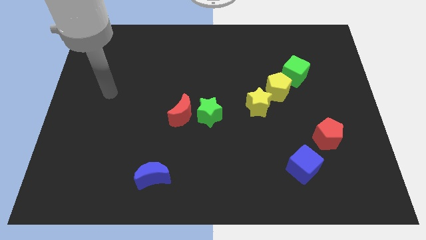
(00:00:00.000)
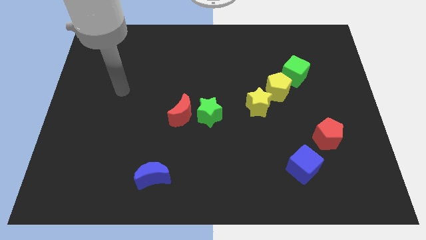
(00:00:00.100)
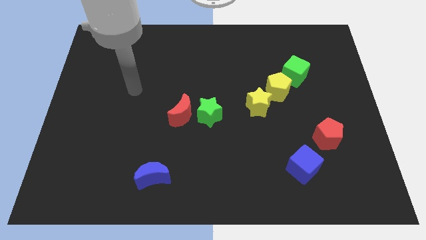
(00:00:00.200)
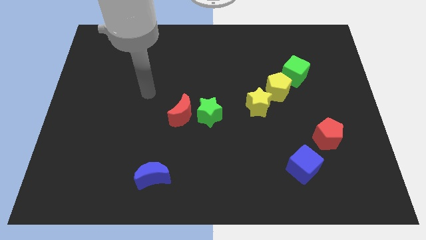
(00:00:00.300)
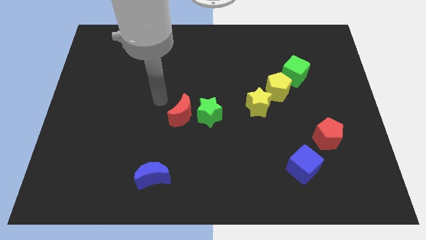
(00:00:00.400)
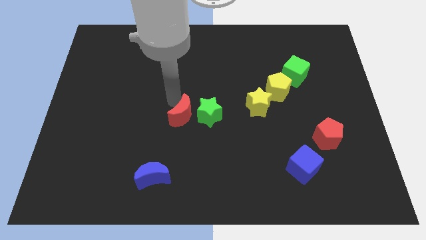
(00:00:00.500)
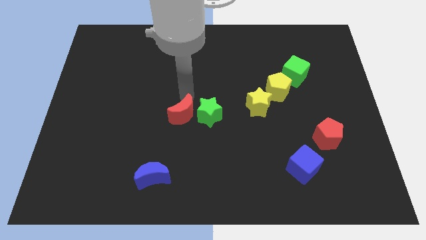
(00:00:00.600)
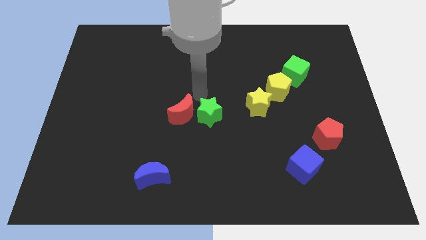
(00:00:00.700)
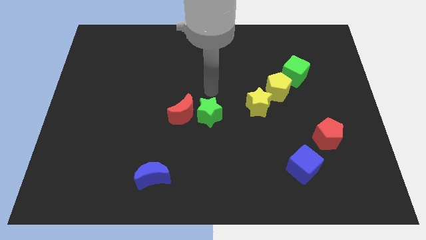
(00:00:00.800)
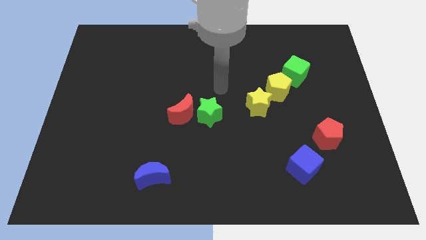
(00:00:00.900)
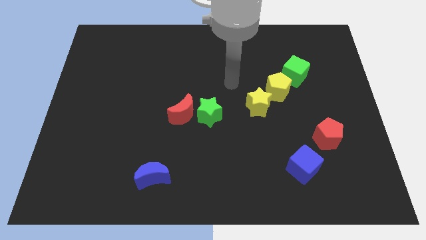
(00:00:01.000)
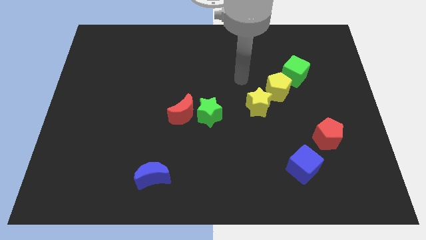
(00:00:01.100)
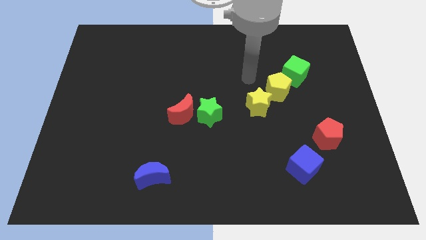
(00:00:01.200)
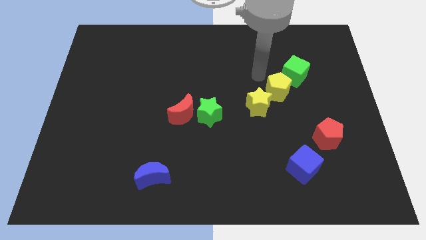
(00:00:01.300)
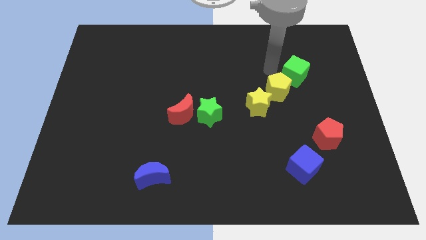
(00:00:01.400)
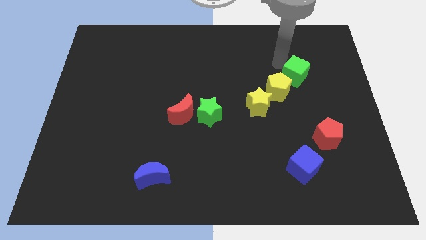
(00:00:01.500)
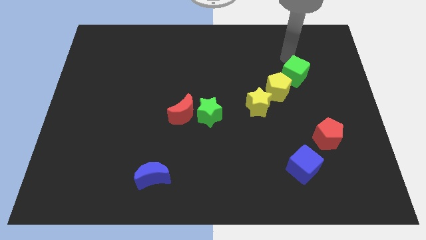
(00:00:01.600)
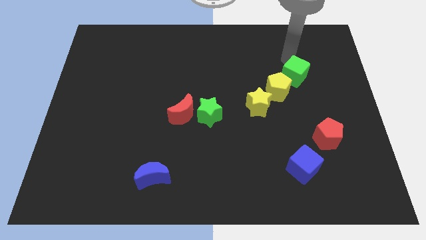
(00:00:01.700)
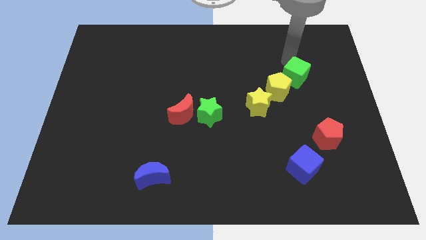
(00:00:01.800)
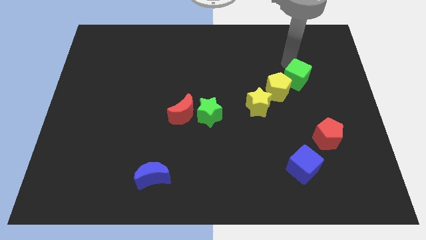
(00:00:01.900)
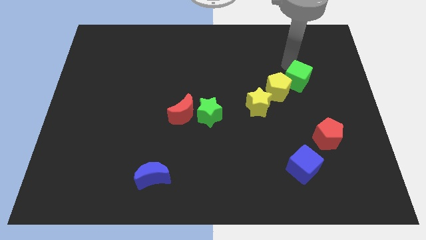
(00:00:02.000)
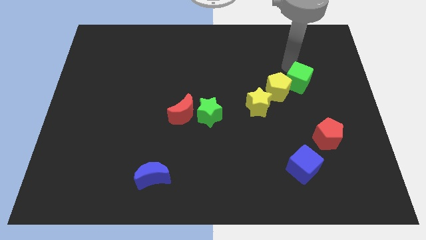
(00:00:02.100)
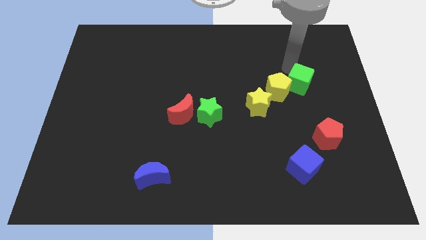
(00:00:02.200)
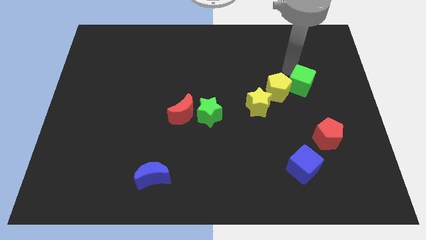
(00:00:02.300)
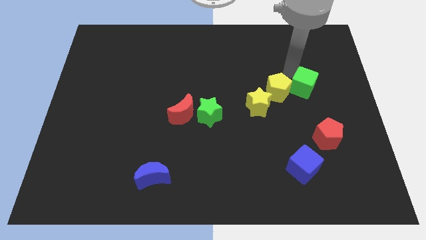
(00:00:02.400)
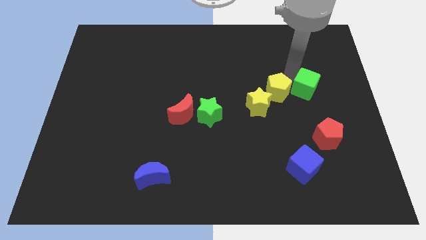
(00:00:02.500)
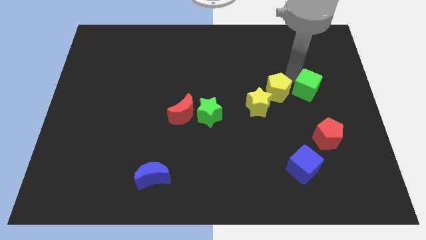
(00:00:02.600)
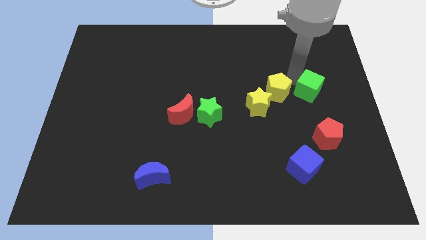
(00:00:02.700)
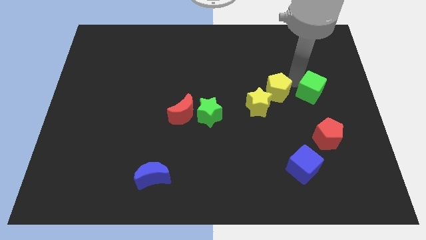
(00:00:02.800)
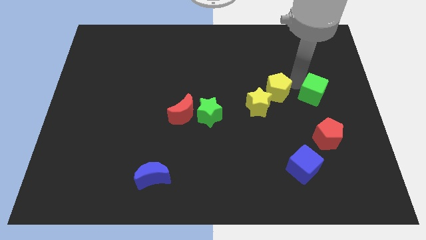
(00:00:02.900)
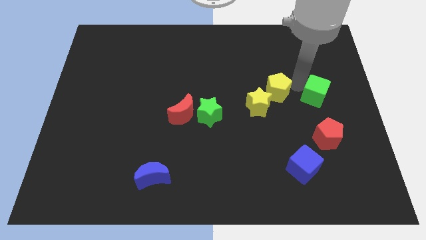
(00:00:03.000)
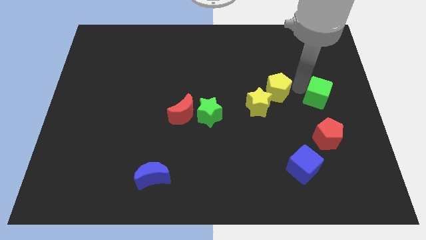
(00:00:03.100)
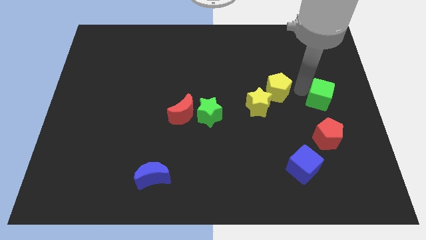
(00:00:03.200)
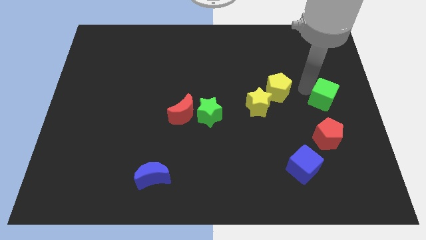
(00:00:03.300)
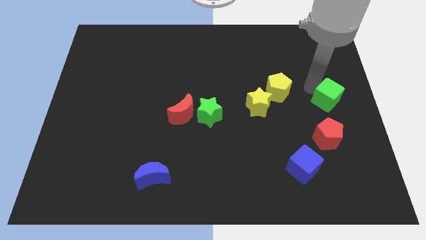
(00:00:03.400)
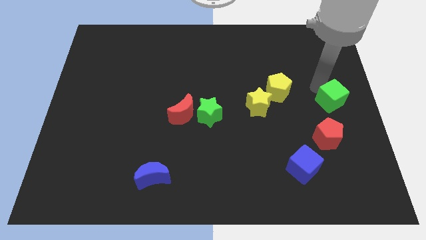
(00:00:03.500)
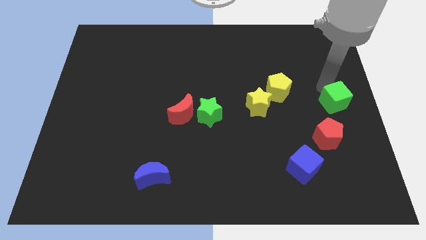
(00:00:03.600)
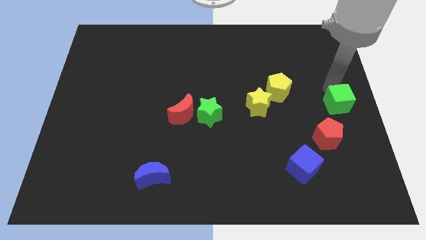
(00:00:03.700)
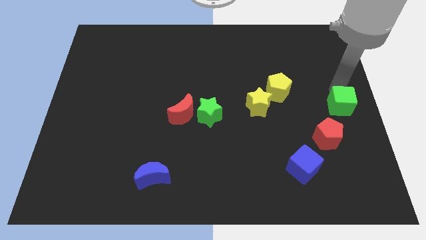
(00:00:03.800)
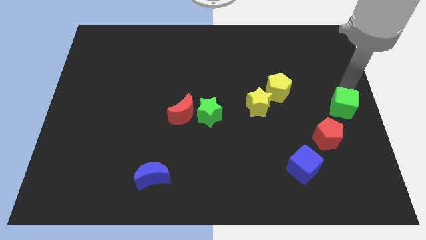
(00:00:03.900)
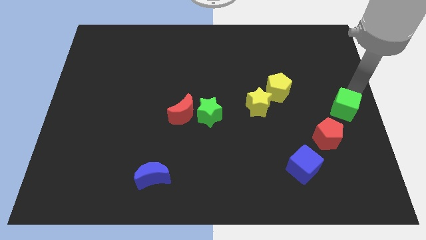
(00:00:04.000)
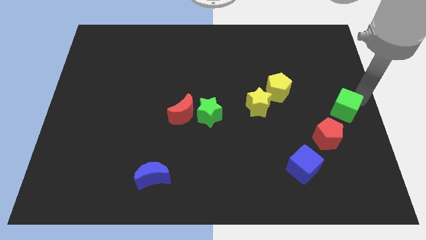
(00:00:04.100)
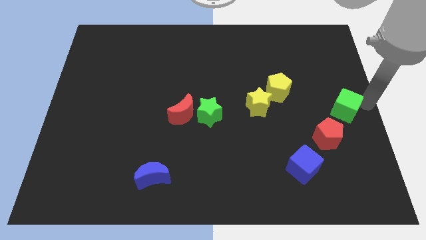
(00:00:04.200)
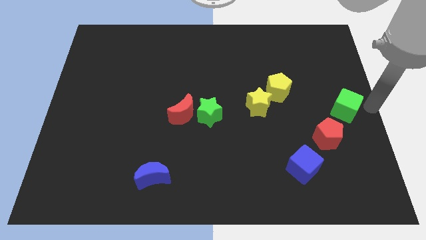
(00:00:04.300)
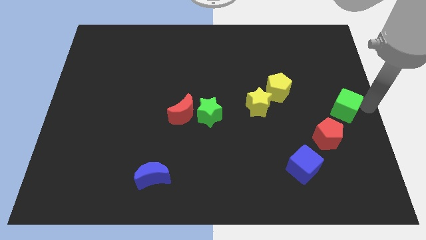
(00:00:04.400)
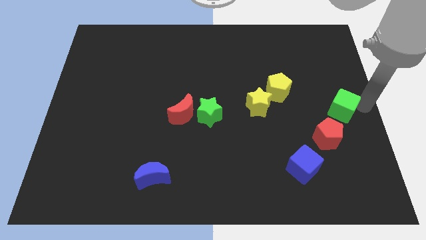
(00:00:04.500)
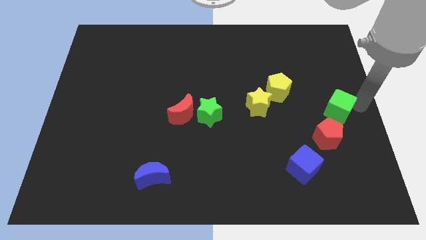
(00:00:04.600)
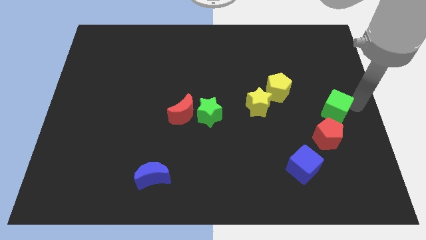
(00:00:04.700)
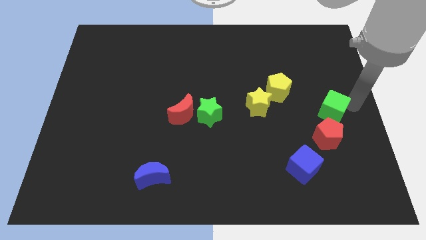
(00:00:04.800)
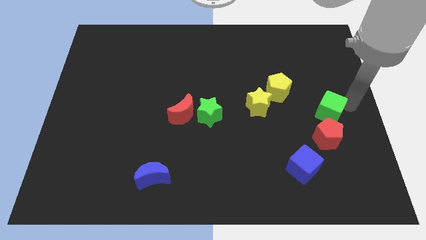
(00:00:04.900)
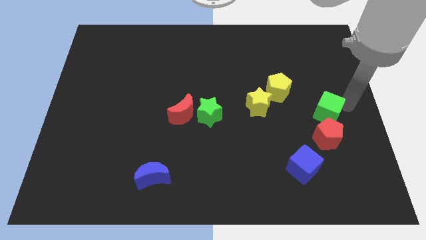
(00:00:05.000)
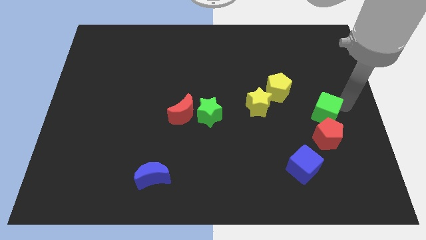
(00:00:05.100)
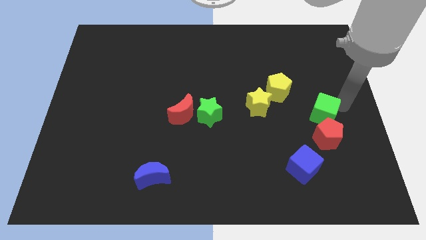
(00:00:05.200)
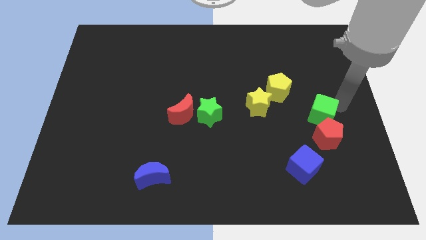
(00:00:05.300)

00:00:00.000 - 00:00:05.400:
move the green cube towards the red pentagon

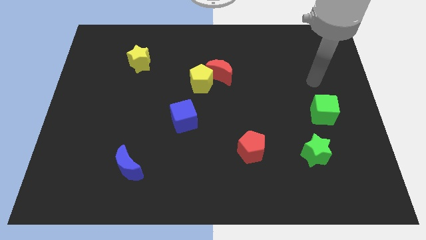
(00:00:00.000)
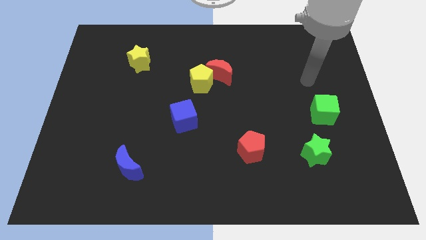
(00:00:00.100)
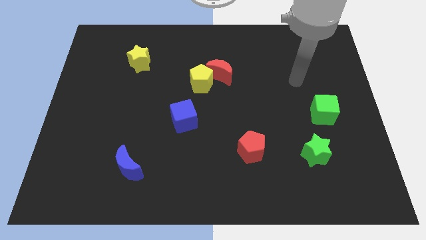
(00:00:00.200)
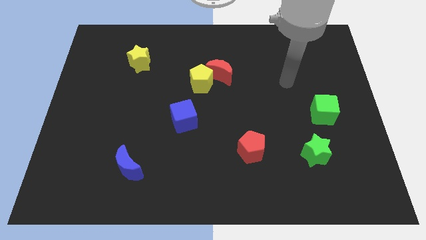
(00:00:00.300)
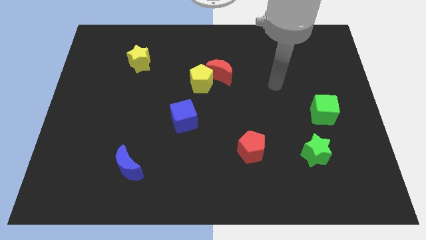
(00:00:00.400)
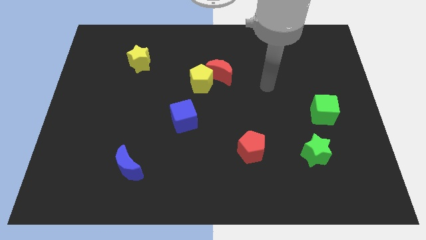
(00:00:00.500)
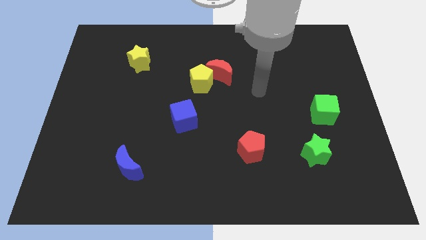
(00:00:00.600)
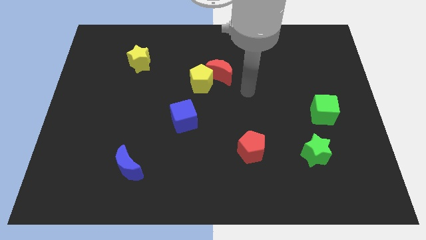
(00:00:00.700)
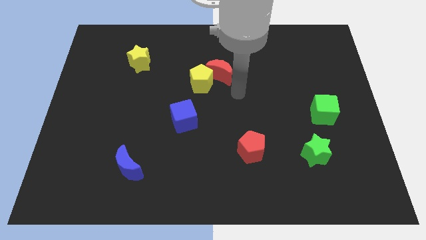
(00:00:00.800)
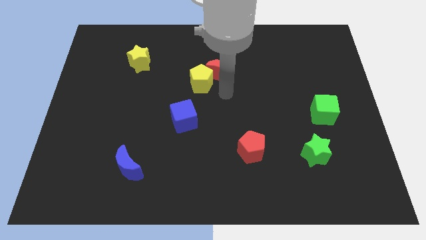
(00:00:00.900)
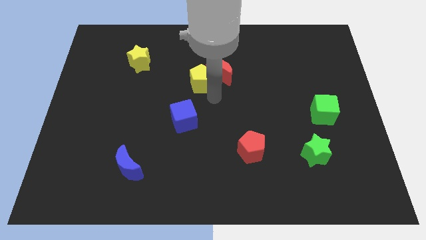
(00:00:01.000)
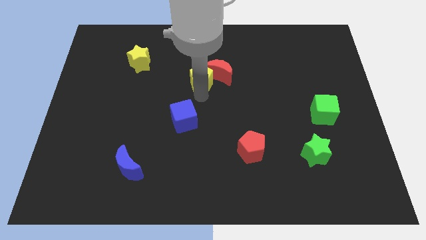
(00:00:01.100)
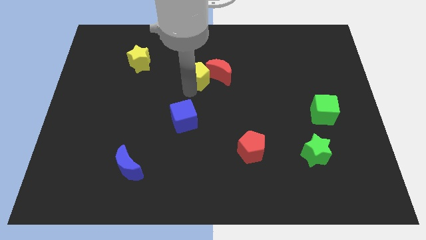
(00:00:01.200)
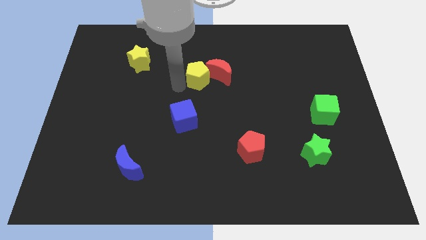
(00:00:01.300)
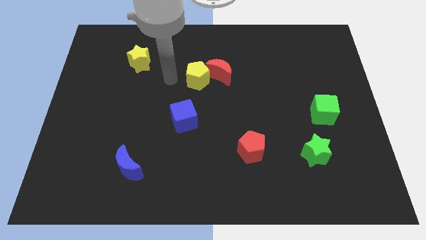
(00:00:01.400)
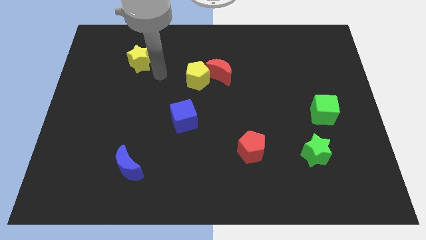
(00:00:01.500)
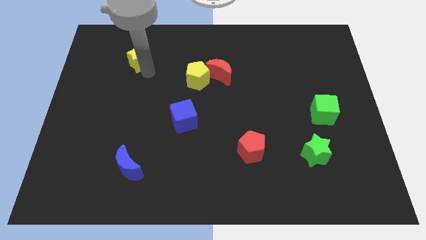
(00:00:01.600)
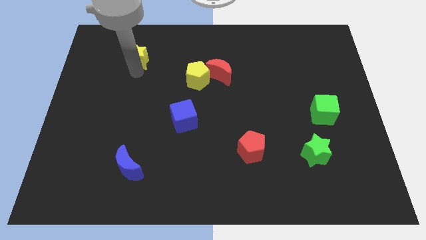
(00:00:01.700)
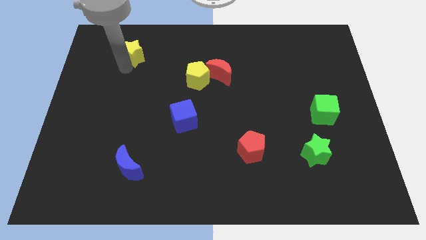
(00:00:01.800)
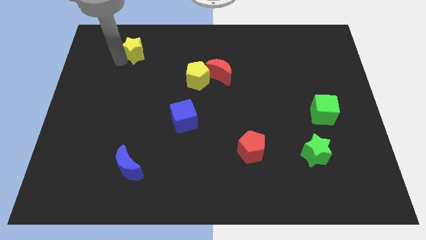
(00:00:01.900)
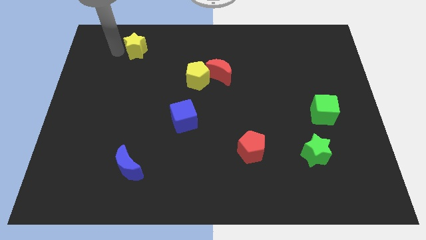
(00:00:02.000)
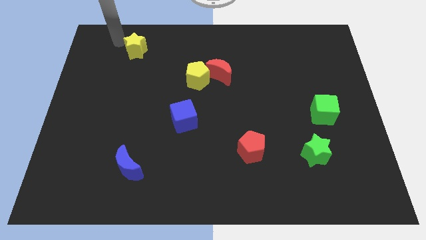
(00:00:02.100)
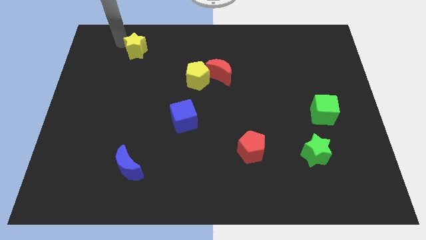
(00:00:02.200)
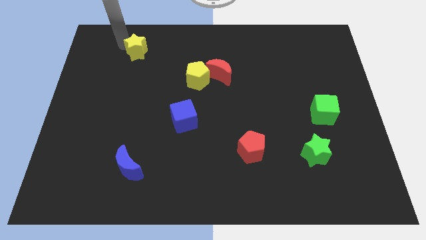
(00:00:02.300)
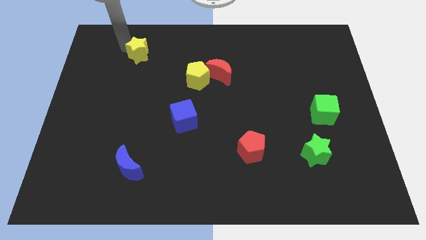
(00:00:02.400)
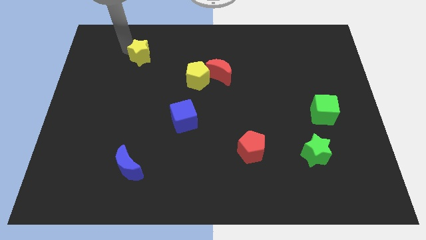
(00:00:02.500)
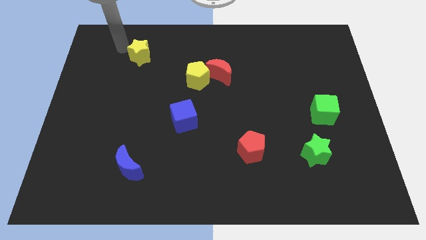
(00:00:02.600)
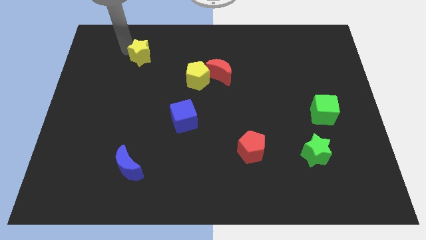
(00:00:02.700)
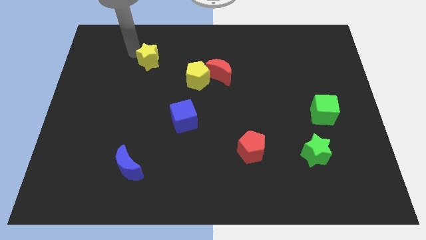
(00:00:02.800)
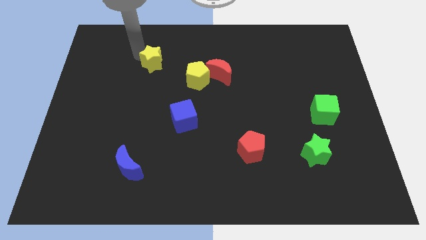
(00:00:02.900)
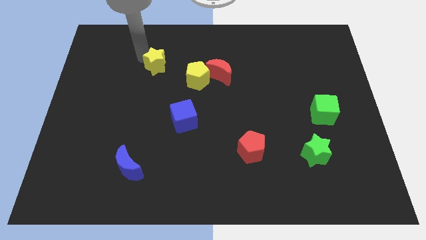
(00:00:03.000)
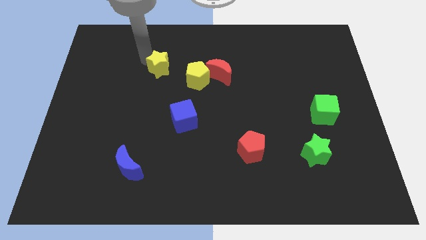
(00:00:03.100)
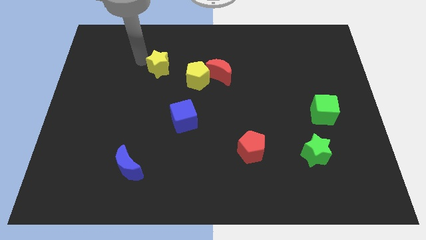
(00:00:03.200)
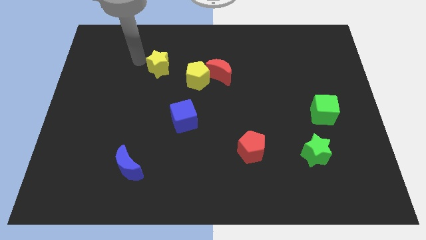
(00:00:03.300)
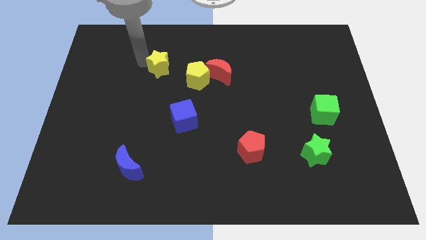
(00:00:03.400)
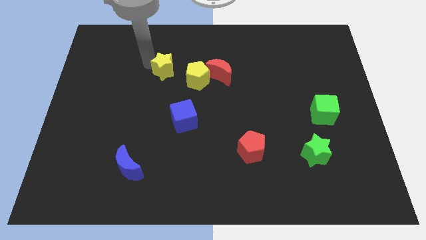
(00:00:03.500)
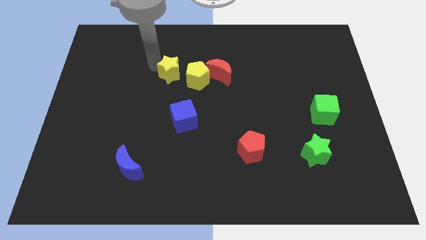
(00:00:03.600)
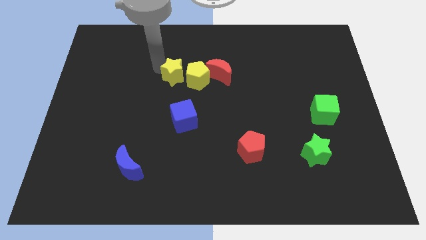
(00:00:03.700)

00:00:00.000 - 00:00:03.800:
put the yellow star to the yellow pentagon
